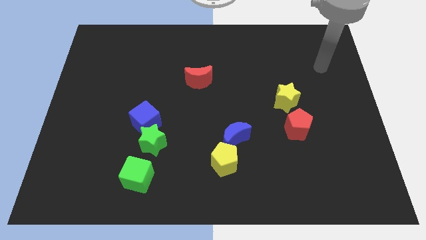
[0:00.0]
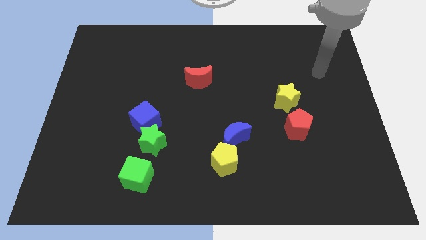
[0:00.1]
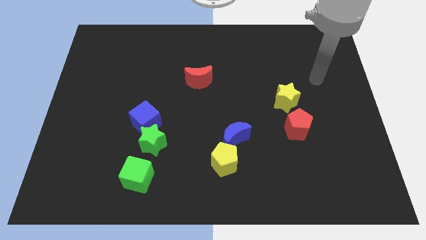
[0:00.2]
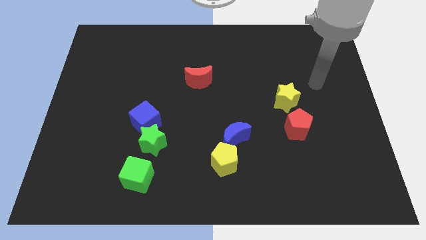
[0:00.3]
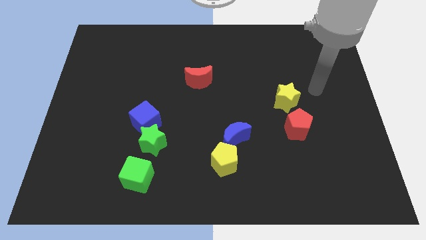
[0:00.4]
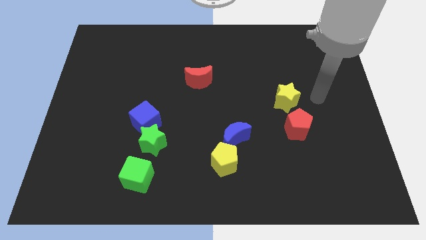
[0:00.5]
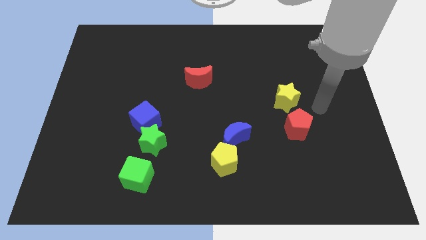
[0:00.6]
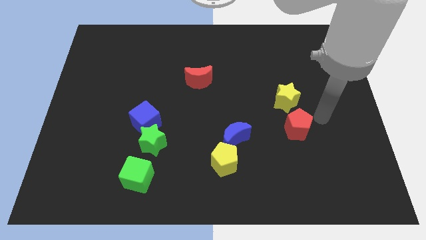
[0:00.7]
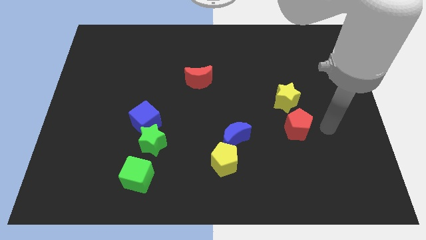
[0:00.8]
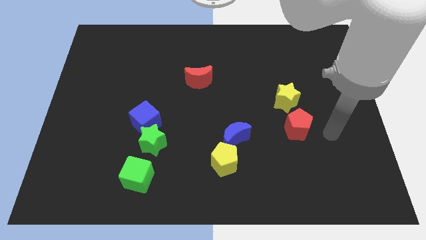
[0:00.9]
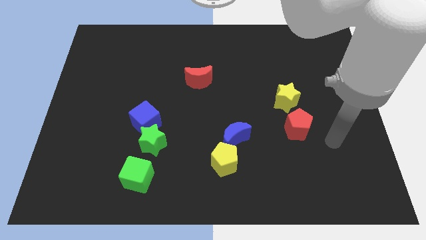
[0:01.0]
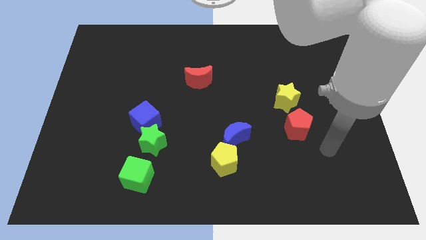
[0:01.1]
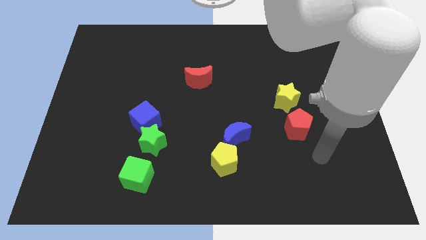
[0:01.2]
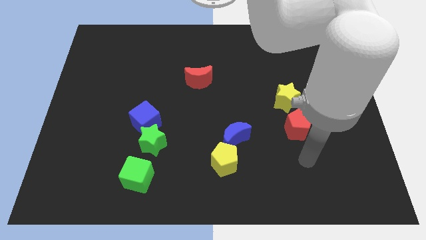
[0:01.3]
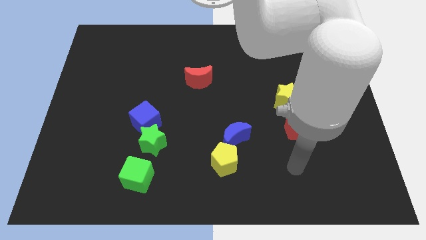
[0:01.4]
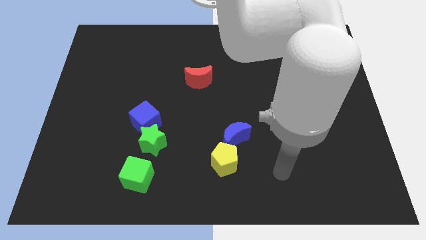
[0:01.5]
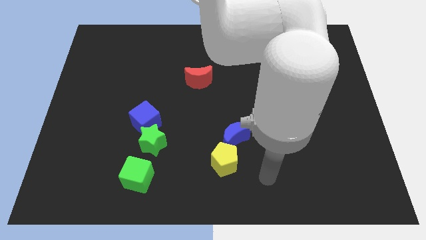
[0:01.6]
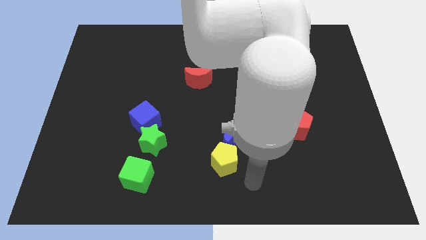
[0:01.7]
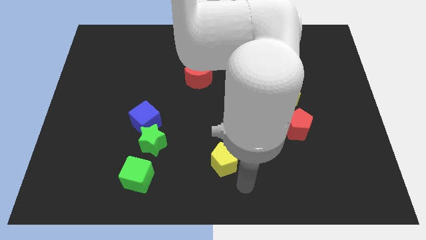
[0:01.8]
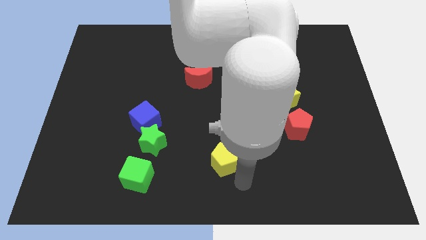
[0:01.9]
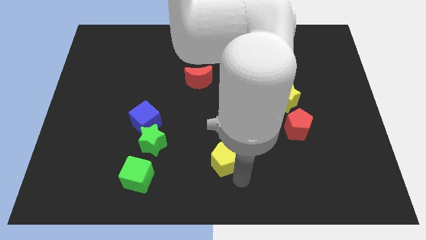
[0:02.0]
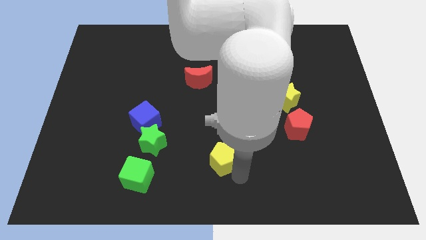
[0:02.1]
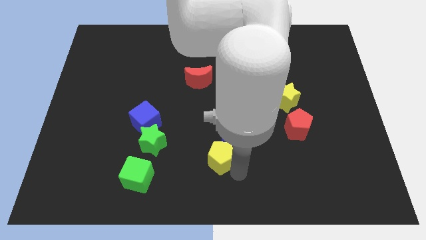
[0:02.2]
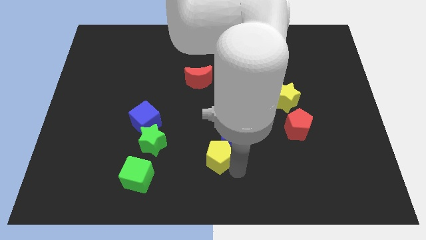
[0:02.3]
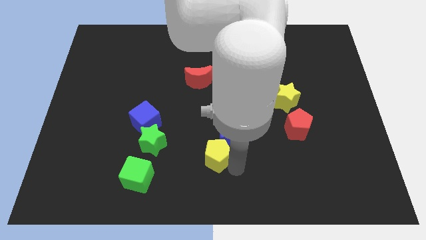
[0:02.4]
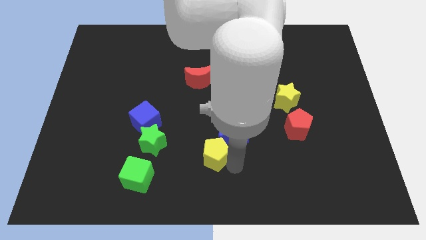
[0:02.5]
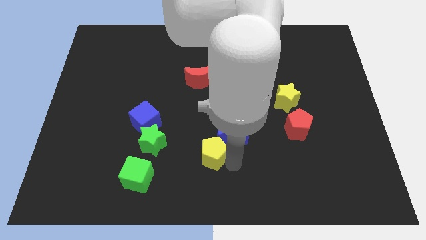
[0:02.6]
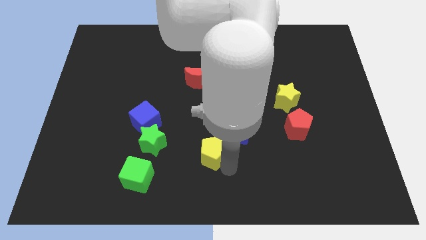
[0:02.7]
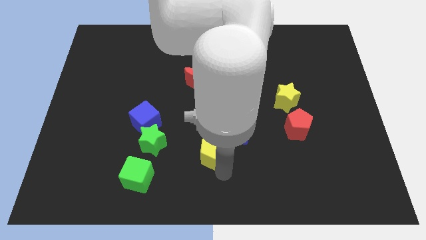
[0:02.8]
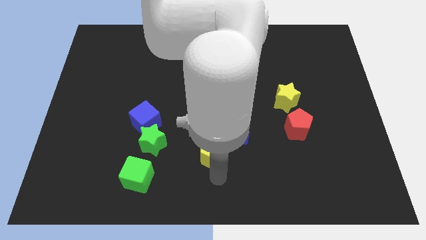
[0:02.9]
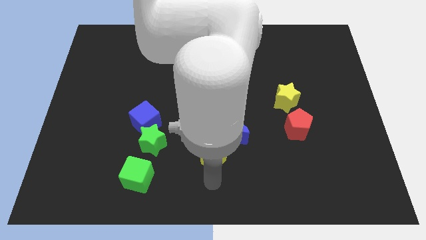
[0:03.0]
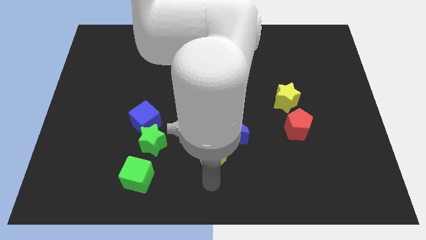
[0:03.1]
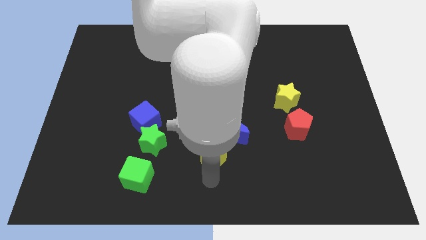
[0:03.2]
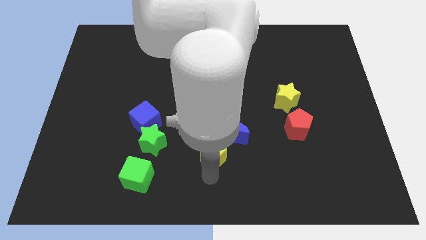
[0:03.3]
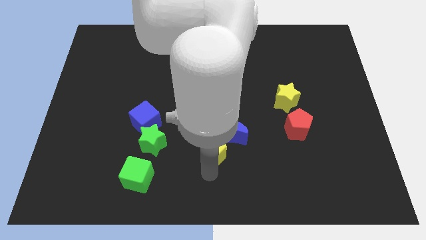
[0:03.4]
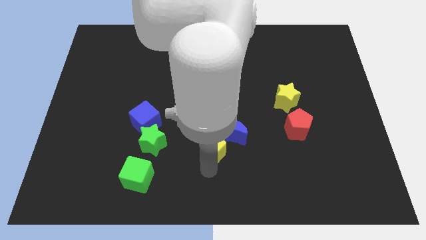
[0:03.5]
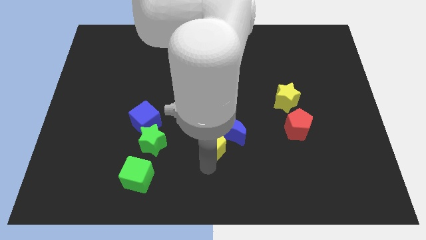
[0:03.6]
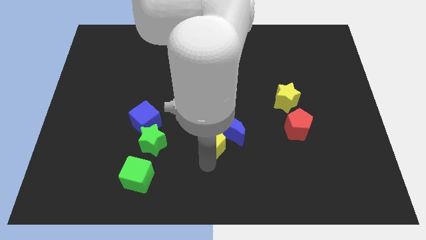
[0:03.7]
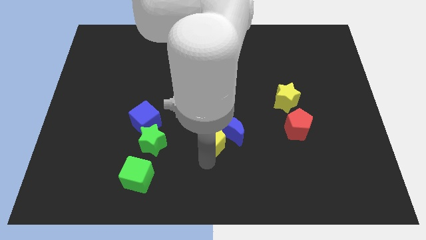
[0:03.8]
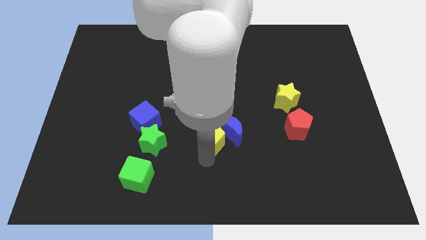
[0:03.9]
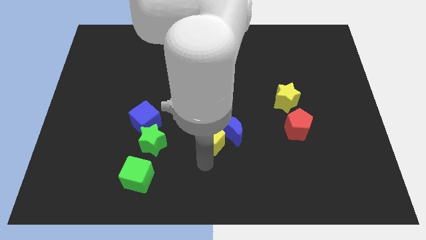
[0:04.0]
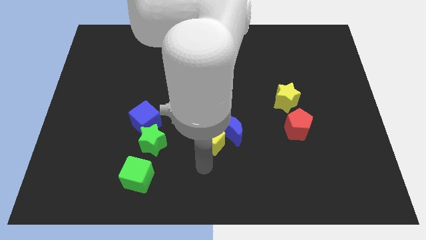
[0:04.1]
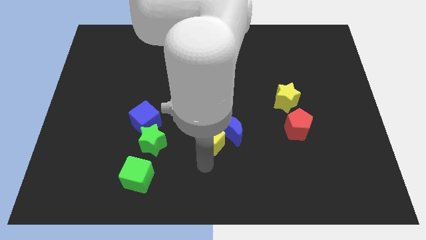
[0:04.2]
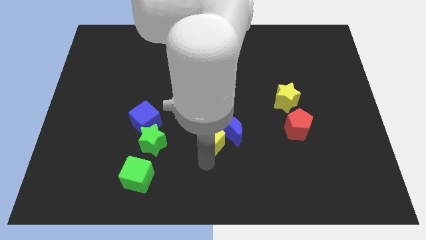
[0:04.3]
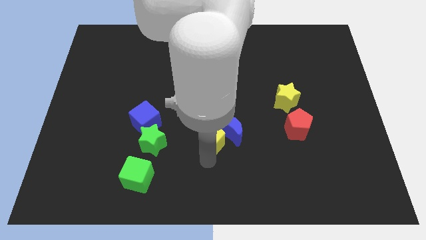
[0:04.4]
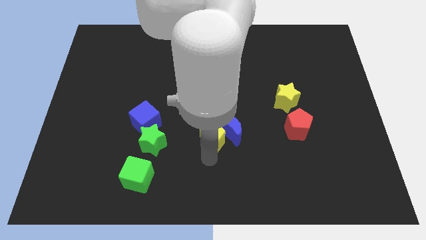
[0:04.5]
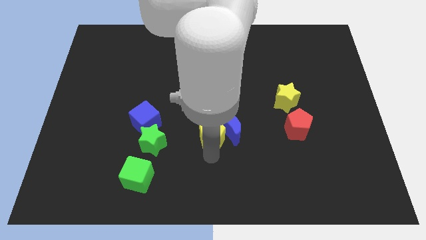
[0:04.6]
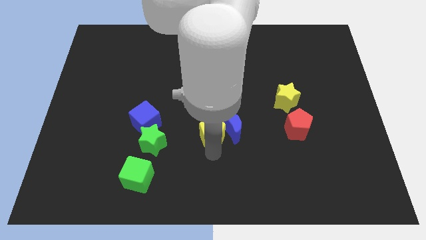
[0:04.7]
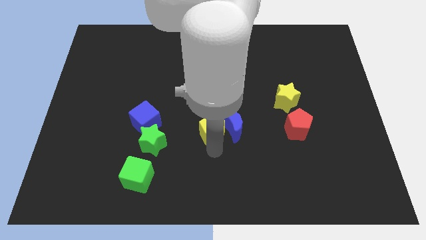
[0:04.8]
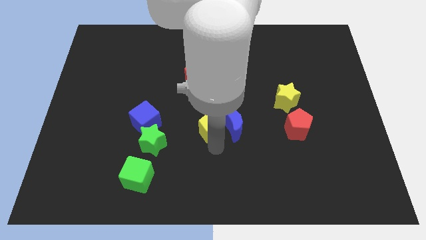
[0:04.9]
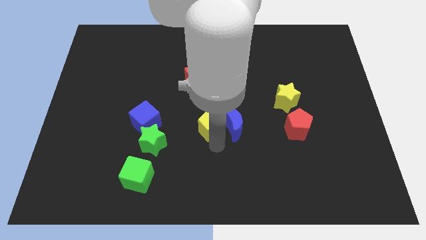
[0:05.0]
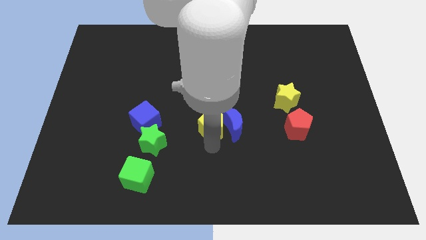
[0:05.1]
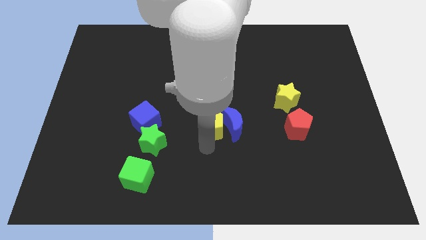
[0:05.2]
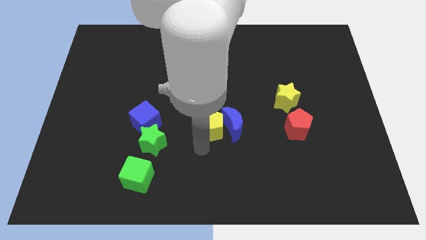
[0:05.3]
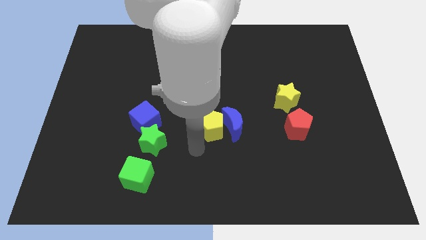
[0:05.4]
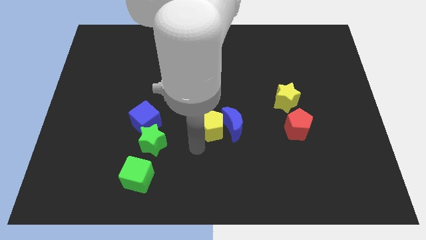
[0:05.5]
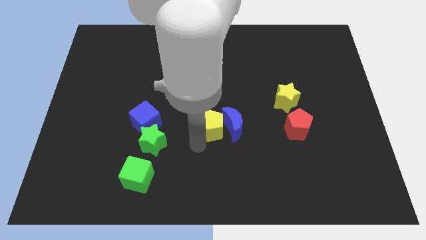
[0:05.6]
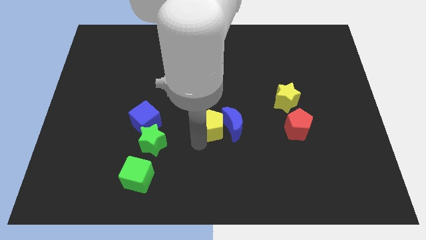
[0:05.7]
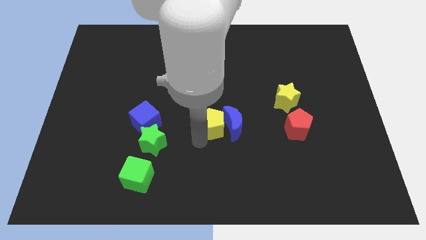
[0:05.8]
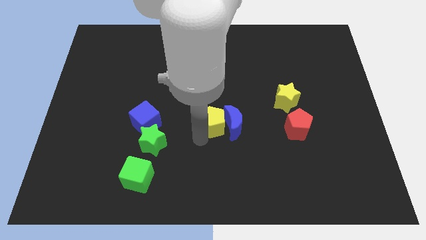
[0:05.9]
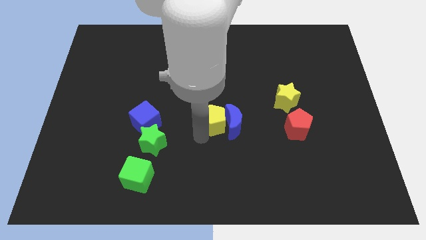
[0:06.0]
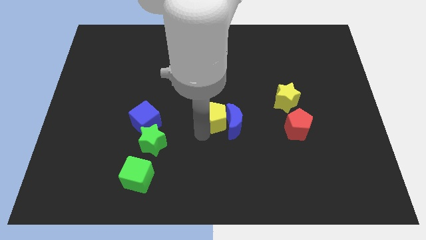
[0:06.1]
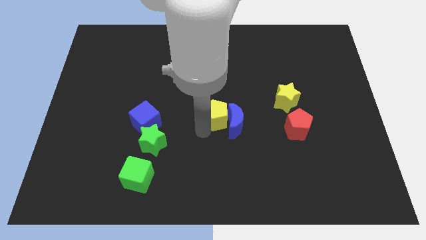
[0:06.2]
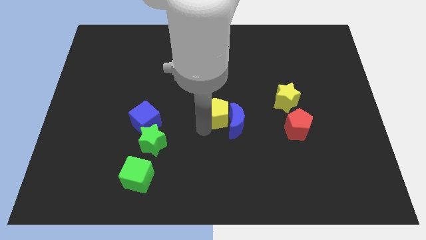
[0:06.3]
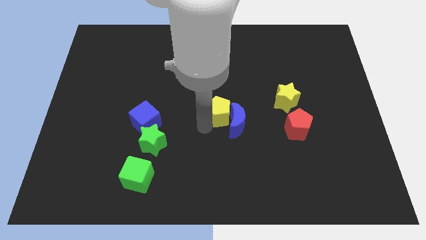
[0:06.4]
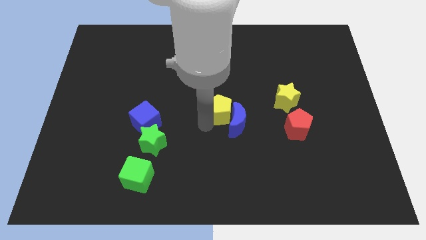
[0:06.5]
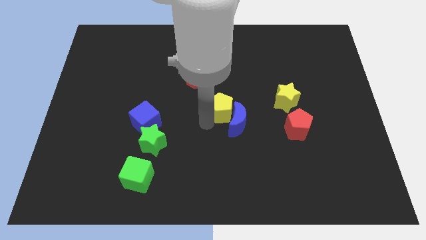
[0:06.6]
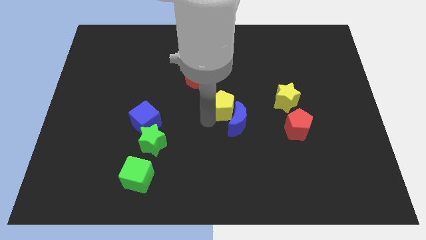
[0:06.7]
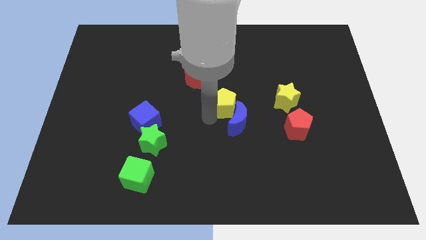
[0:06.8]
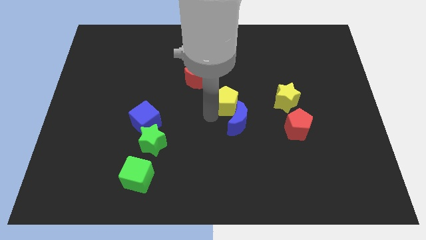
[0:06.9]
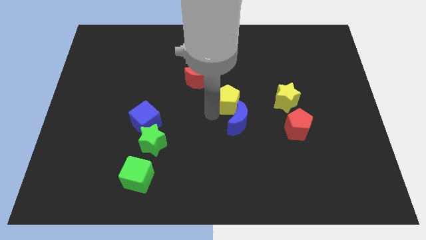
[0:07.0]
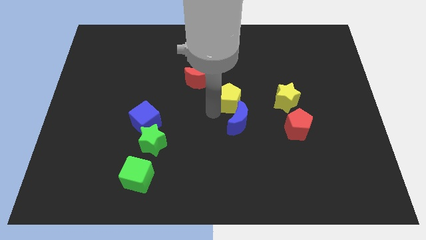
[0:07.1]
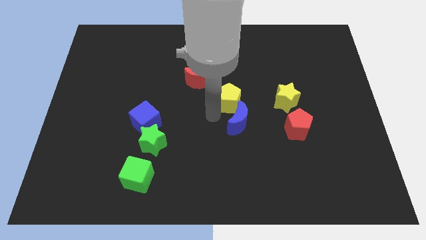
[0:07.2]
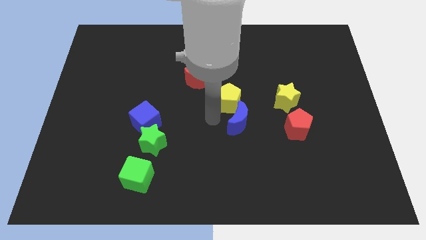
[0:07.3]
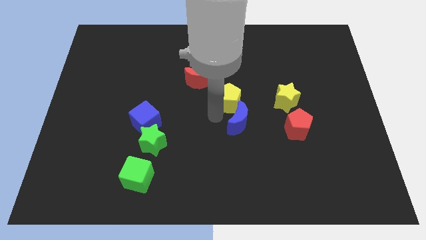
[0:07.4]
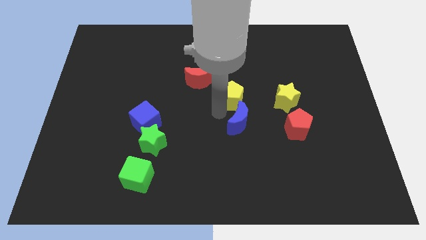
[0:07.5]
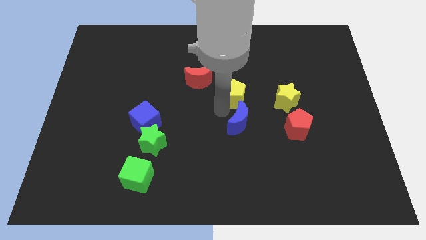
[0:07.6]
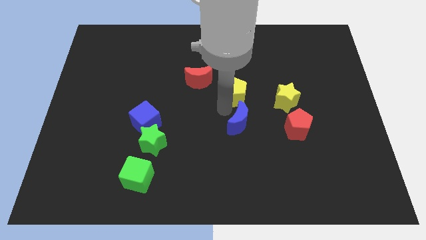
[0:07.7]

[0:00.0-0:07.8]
put the yellow pentagon right of the red moon
